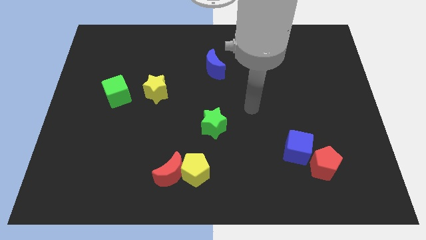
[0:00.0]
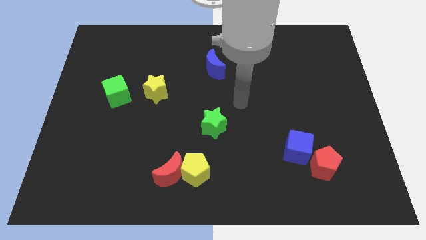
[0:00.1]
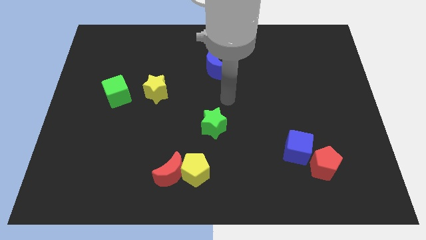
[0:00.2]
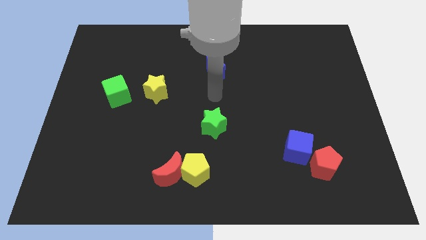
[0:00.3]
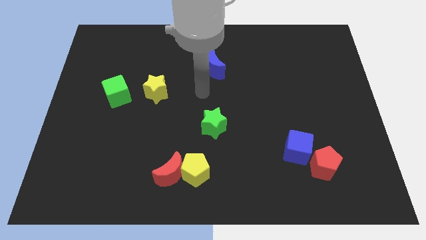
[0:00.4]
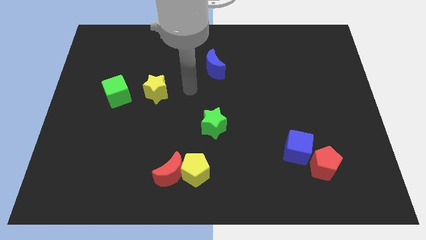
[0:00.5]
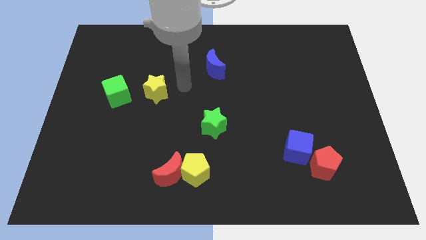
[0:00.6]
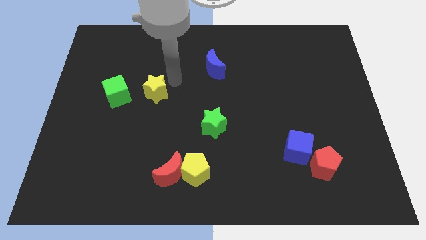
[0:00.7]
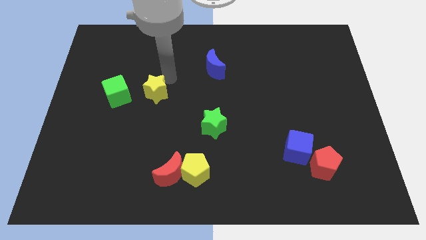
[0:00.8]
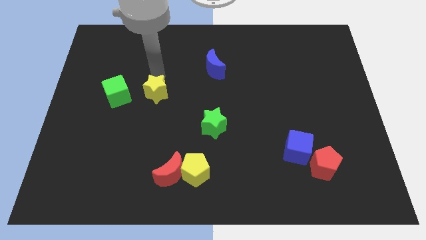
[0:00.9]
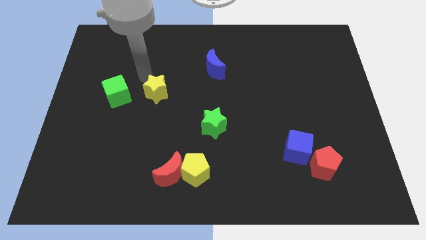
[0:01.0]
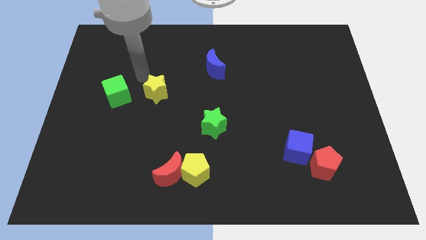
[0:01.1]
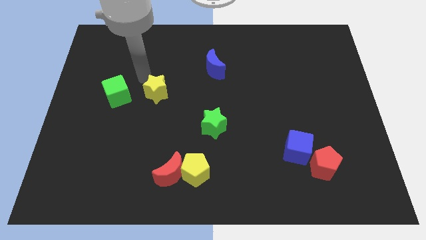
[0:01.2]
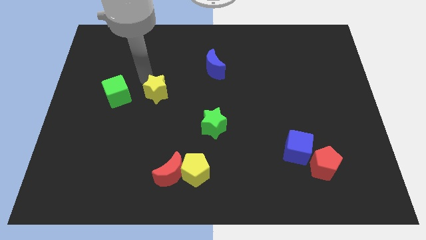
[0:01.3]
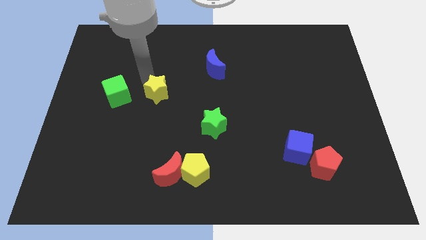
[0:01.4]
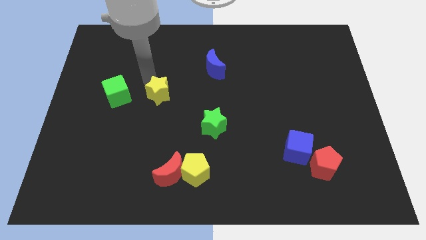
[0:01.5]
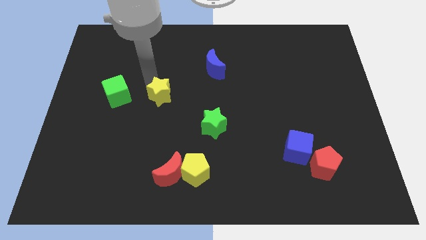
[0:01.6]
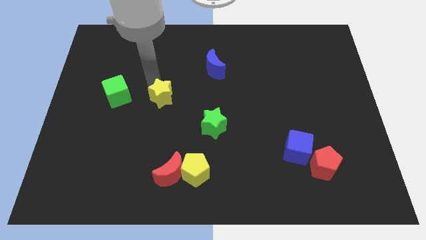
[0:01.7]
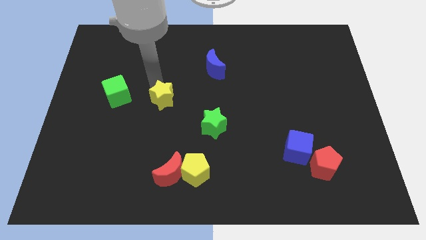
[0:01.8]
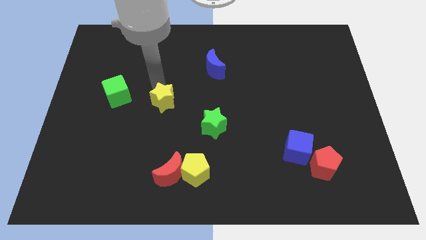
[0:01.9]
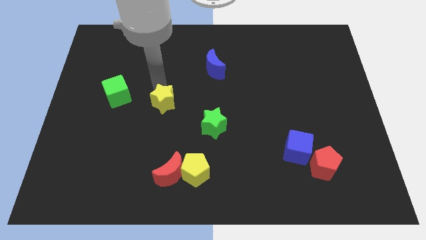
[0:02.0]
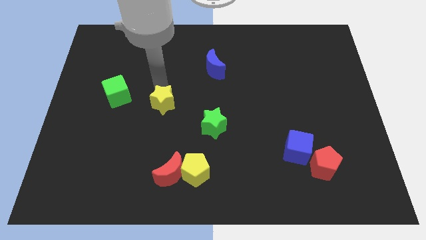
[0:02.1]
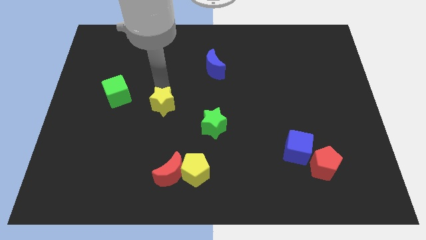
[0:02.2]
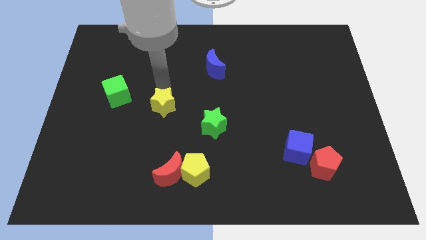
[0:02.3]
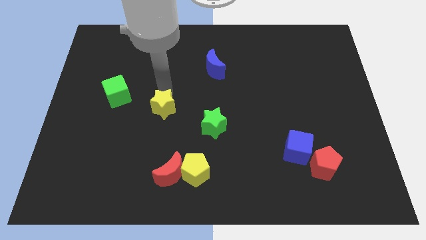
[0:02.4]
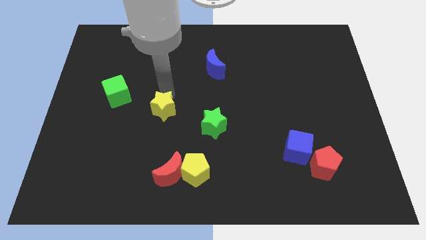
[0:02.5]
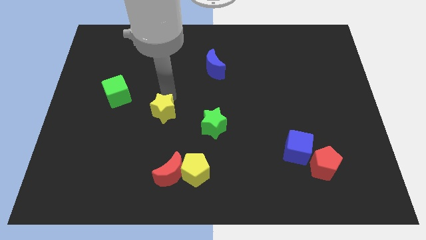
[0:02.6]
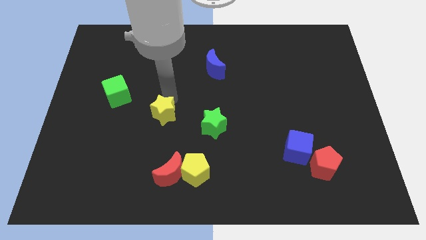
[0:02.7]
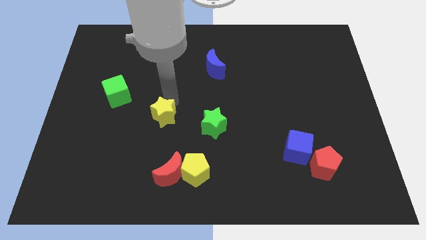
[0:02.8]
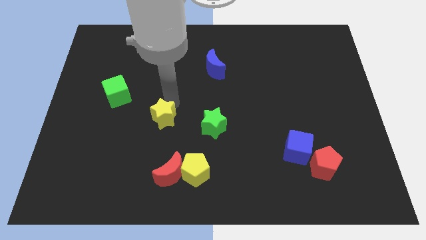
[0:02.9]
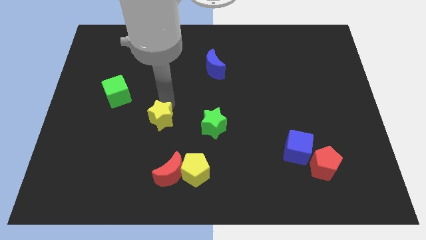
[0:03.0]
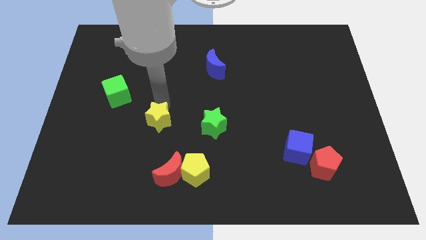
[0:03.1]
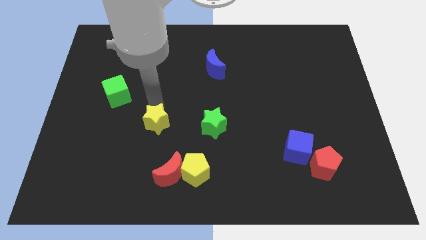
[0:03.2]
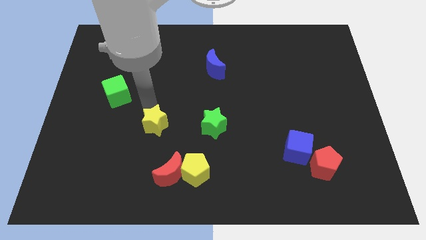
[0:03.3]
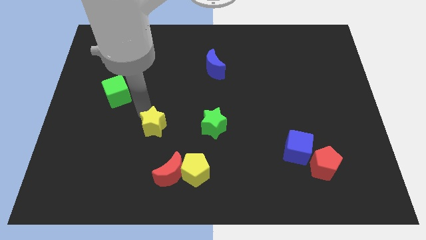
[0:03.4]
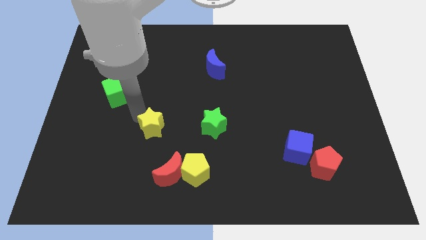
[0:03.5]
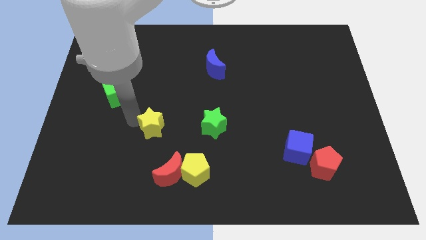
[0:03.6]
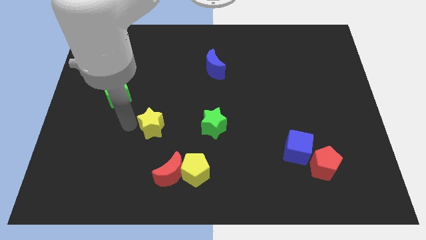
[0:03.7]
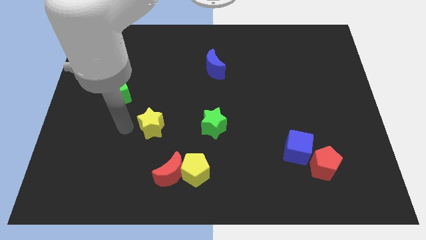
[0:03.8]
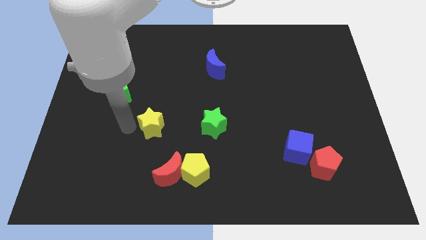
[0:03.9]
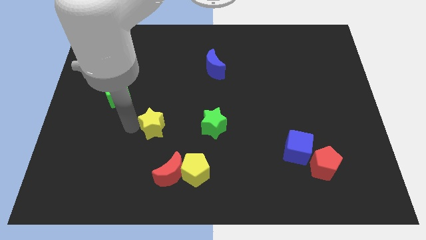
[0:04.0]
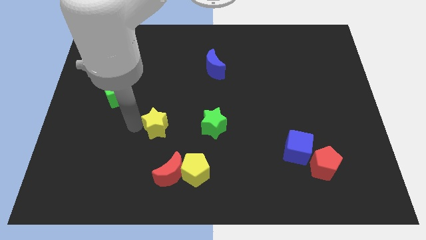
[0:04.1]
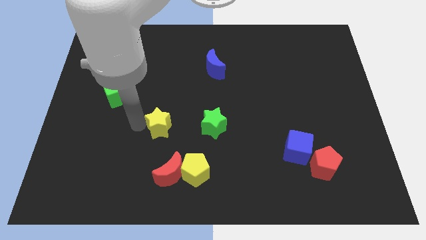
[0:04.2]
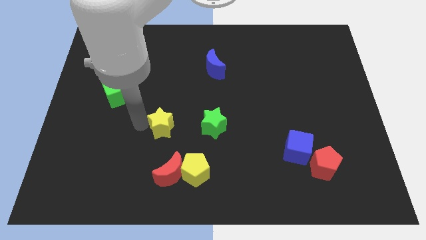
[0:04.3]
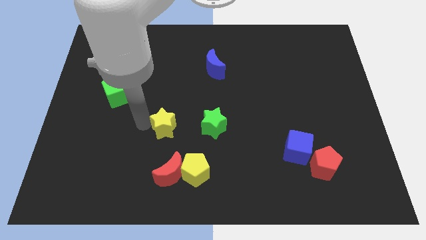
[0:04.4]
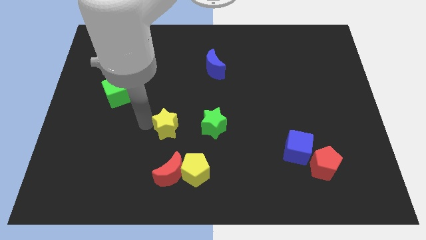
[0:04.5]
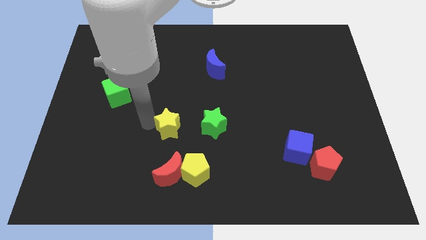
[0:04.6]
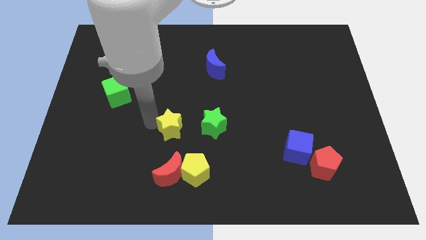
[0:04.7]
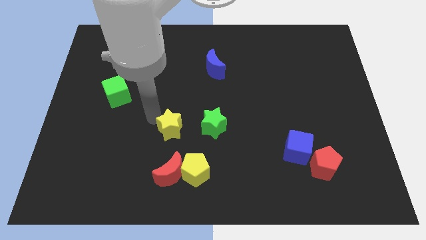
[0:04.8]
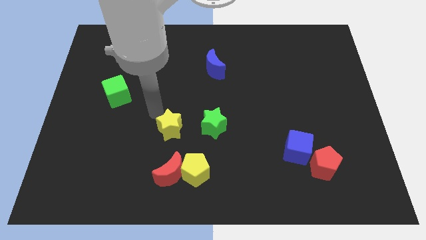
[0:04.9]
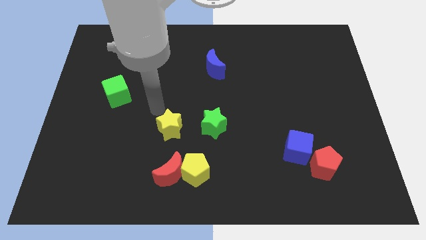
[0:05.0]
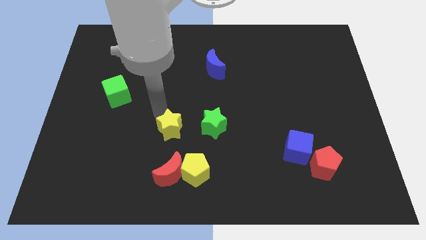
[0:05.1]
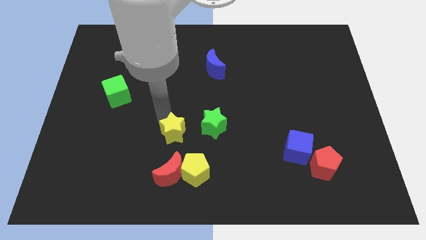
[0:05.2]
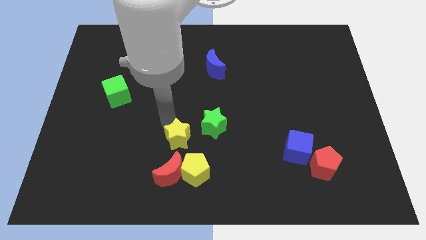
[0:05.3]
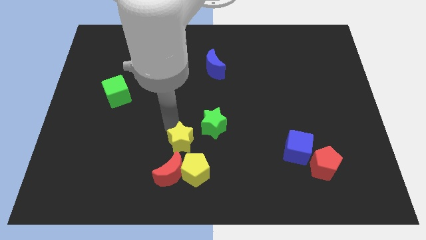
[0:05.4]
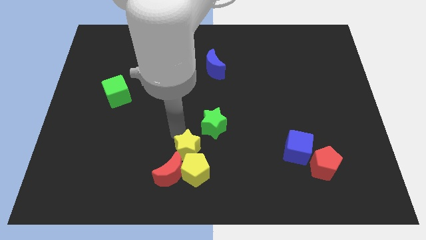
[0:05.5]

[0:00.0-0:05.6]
slide the yellow star close to the yellow pentagon

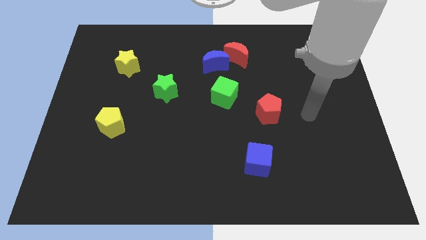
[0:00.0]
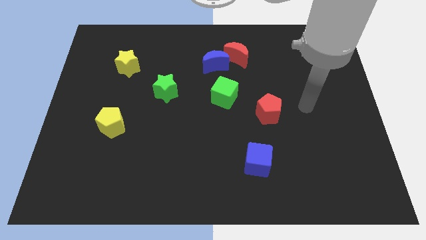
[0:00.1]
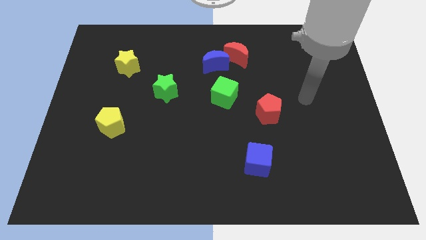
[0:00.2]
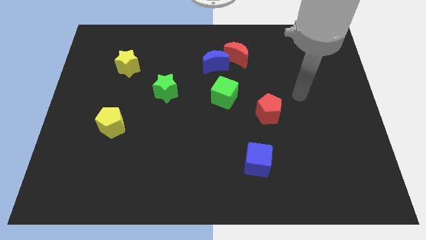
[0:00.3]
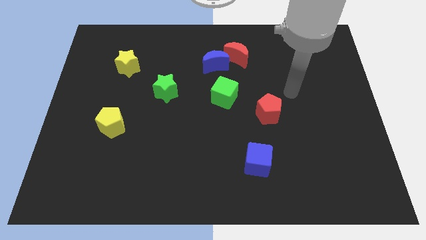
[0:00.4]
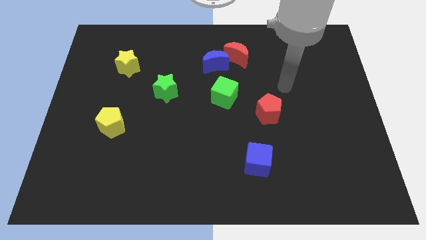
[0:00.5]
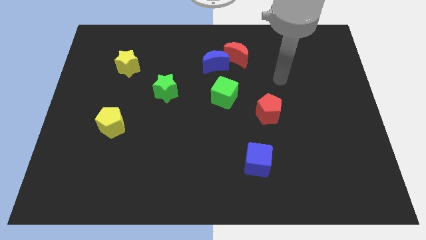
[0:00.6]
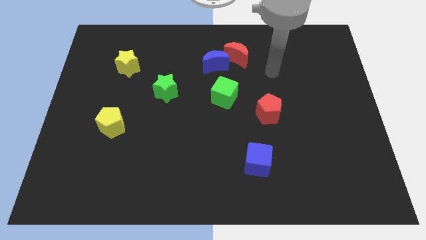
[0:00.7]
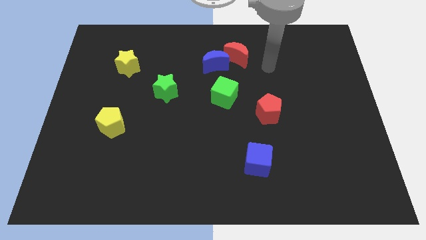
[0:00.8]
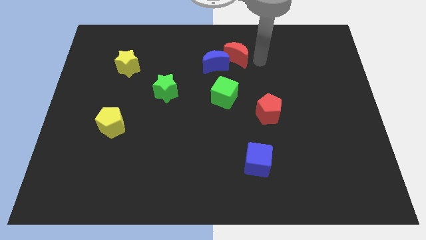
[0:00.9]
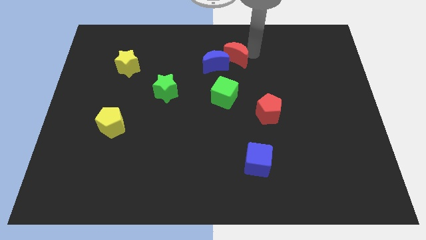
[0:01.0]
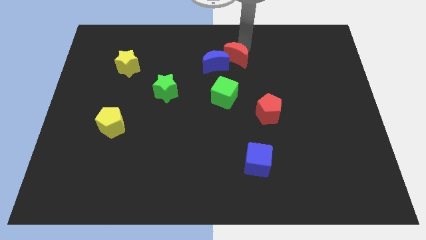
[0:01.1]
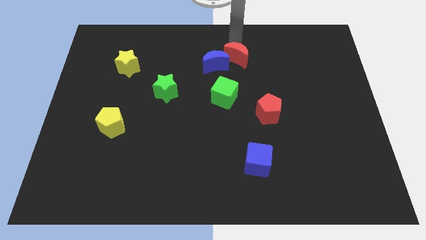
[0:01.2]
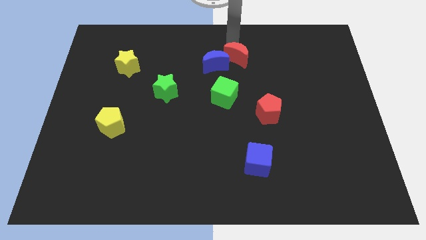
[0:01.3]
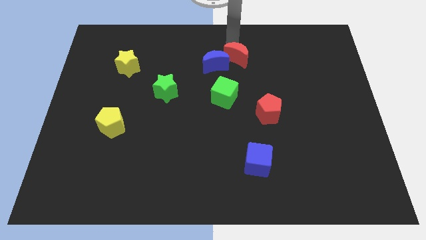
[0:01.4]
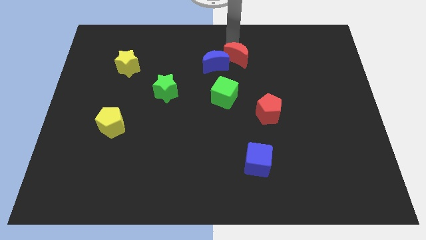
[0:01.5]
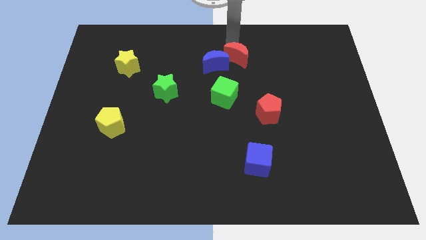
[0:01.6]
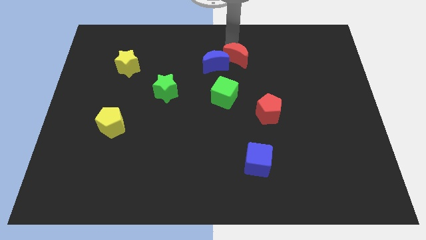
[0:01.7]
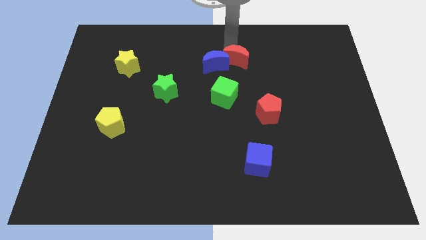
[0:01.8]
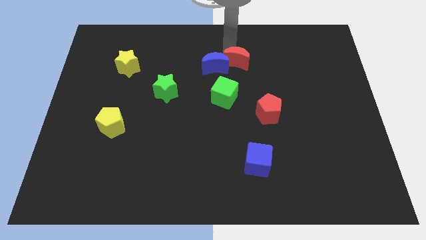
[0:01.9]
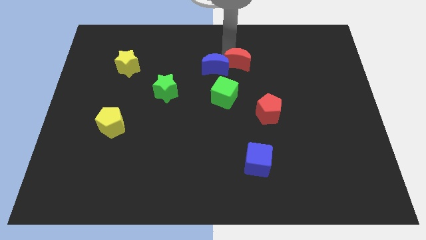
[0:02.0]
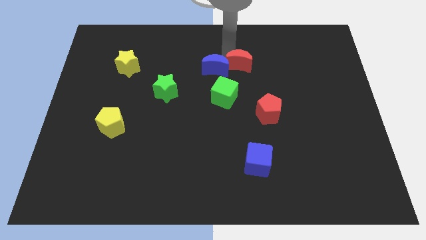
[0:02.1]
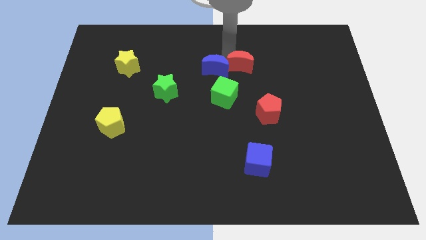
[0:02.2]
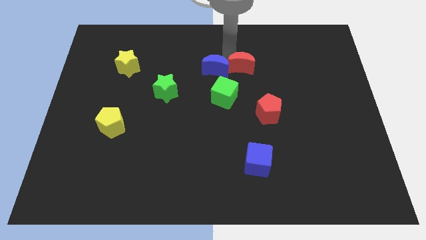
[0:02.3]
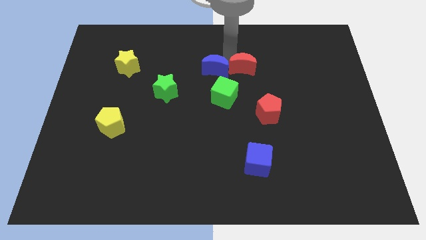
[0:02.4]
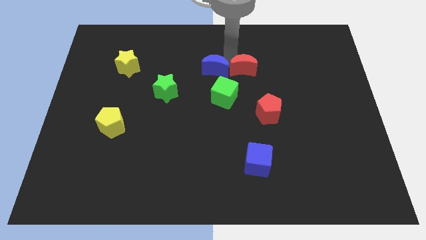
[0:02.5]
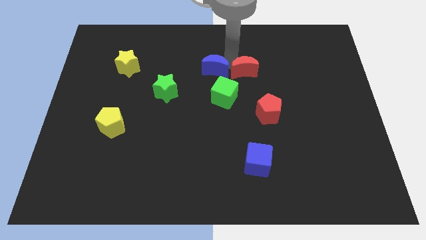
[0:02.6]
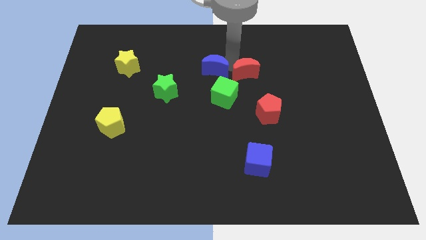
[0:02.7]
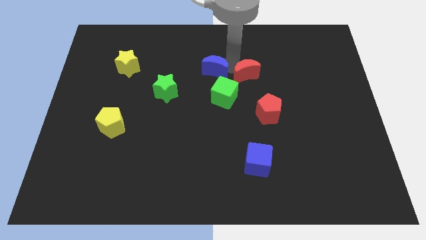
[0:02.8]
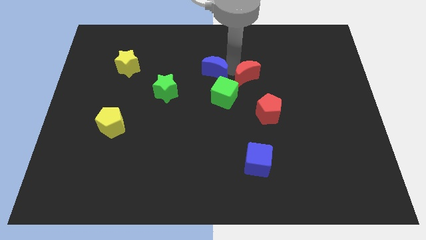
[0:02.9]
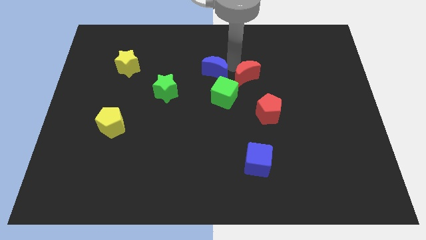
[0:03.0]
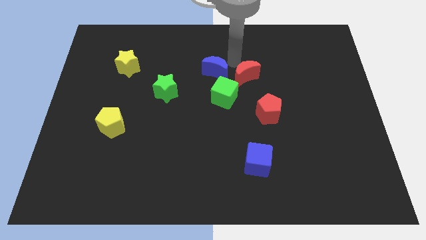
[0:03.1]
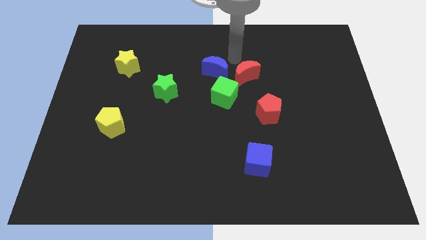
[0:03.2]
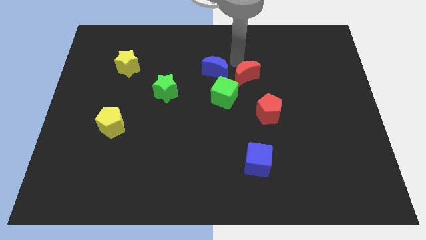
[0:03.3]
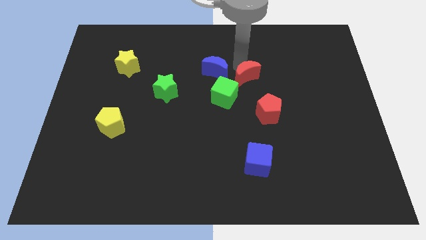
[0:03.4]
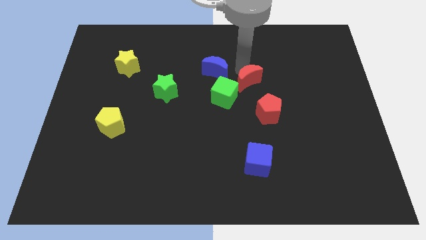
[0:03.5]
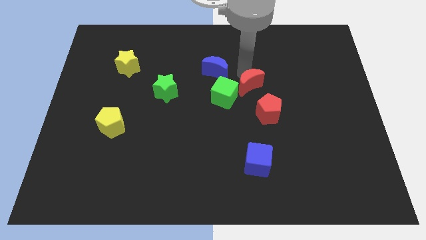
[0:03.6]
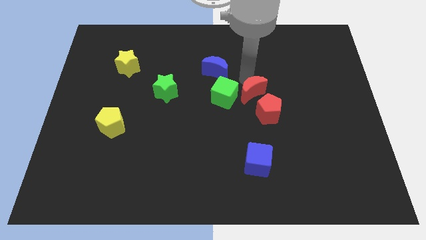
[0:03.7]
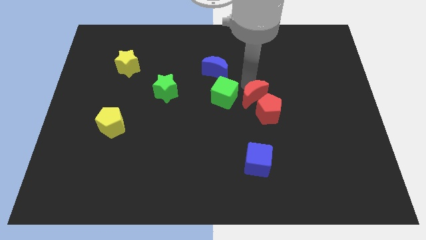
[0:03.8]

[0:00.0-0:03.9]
move the red moon next to the red pentagon
